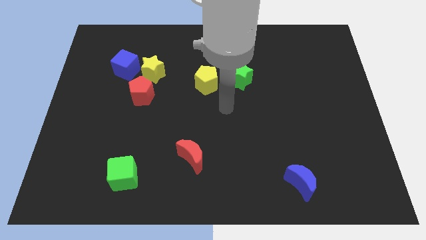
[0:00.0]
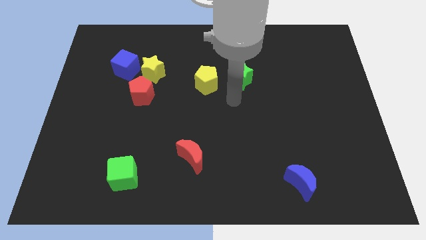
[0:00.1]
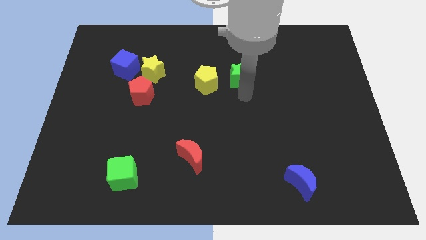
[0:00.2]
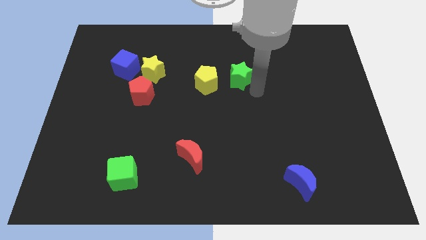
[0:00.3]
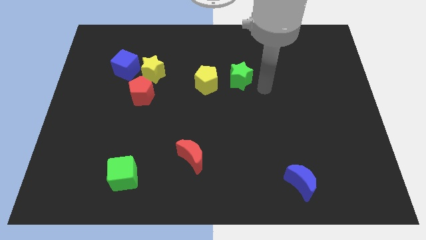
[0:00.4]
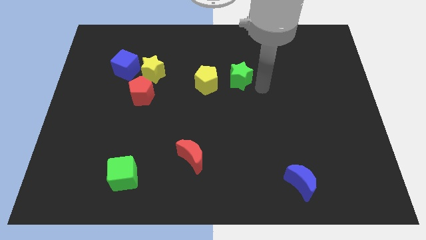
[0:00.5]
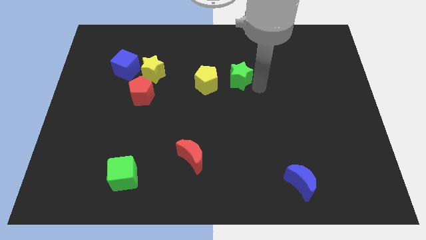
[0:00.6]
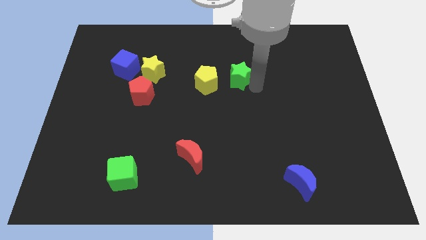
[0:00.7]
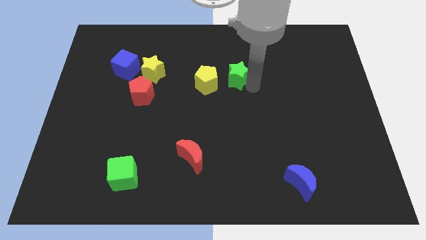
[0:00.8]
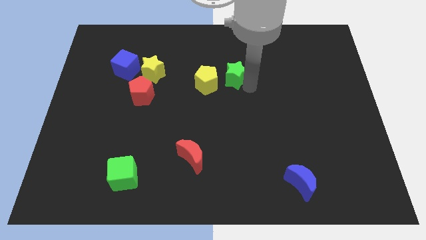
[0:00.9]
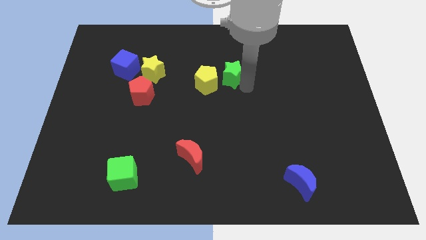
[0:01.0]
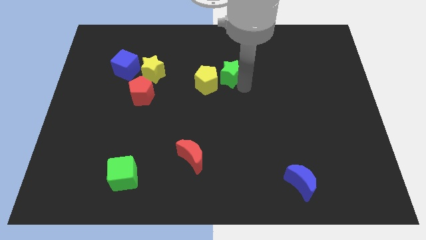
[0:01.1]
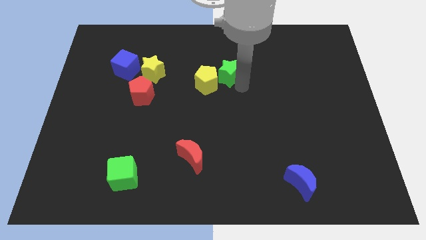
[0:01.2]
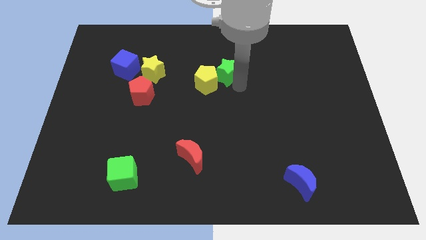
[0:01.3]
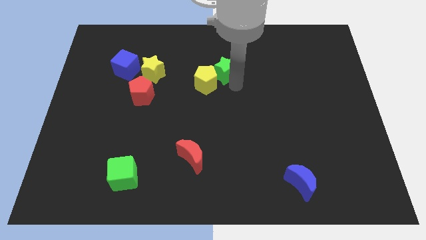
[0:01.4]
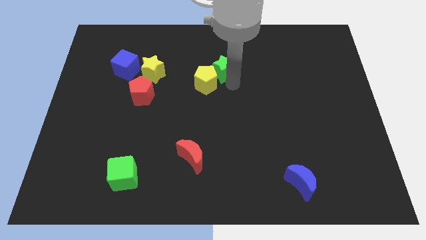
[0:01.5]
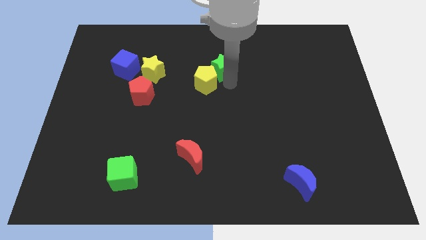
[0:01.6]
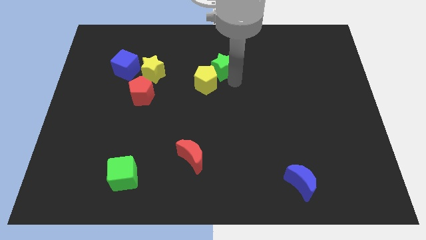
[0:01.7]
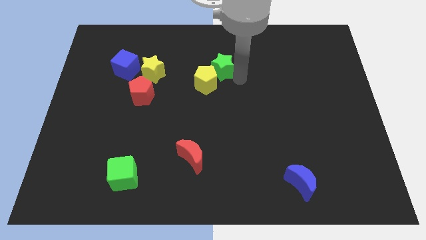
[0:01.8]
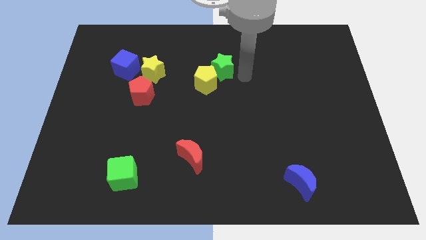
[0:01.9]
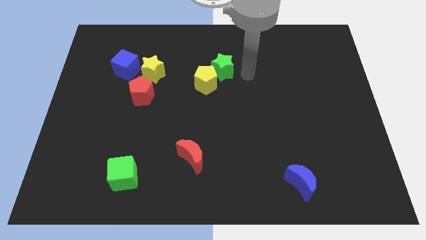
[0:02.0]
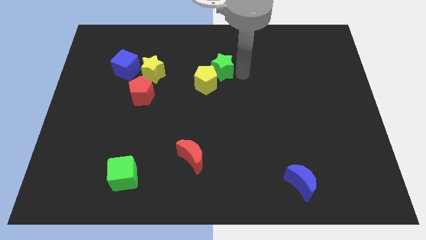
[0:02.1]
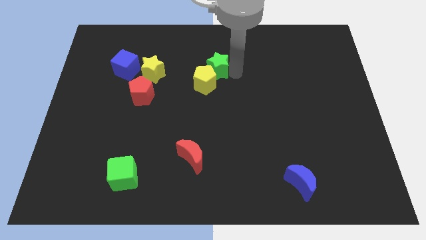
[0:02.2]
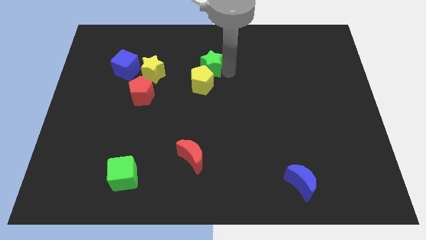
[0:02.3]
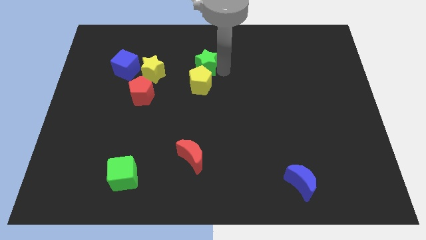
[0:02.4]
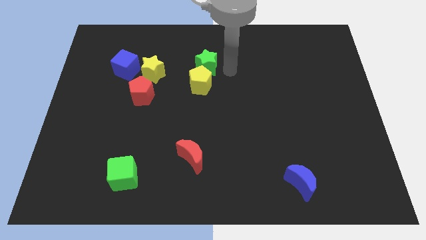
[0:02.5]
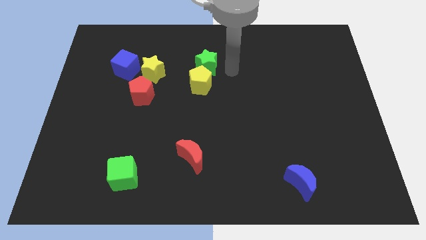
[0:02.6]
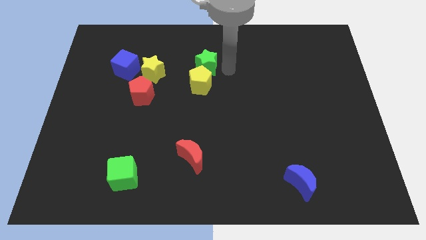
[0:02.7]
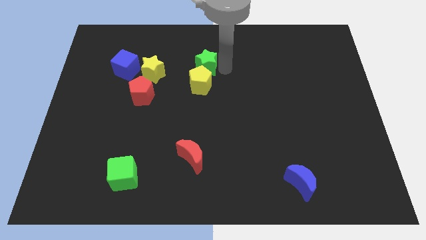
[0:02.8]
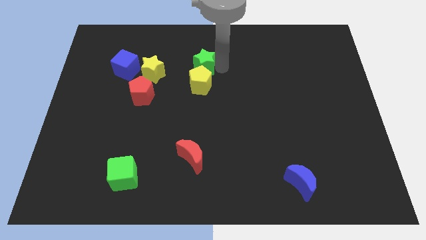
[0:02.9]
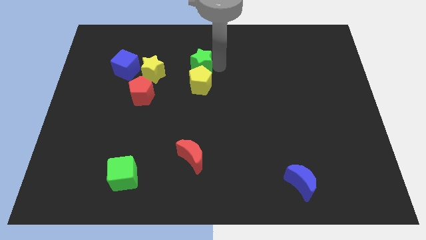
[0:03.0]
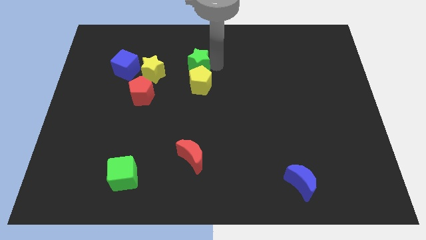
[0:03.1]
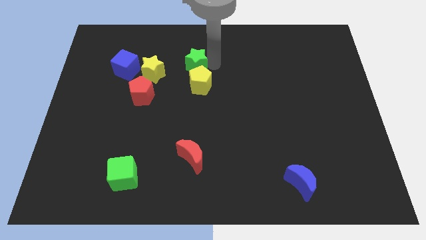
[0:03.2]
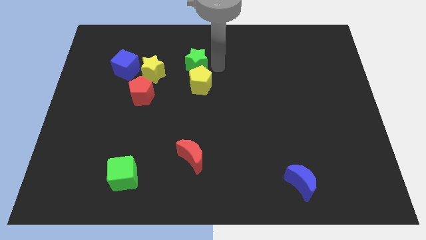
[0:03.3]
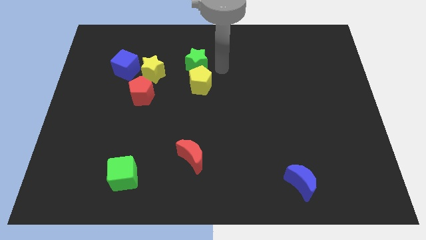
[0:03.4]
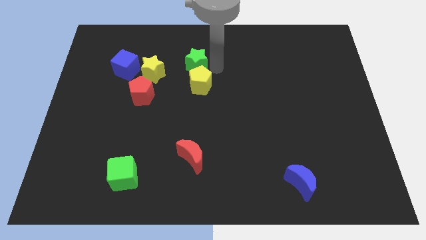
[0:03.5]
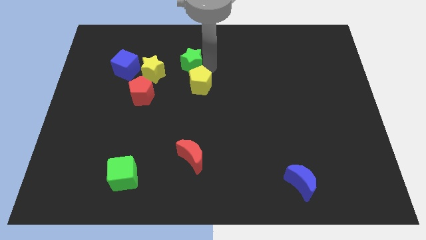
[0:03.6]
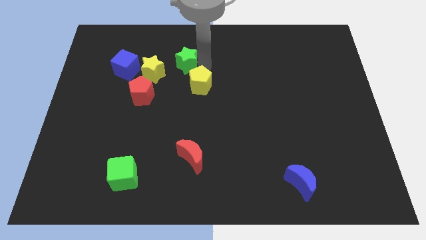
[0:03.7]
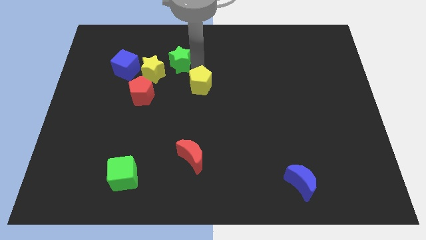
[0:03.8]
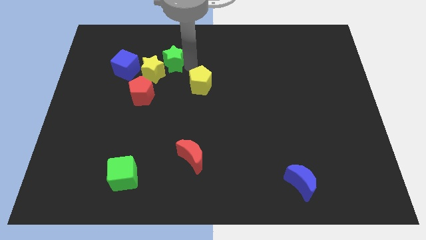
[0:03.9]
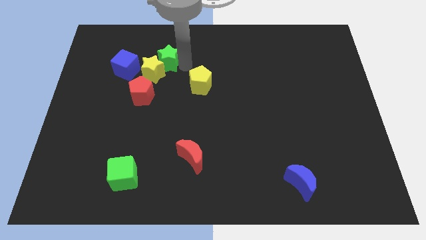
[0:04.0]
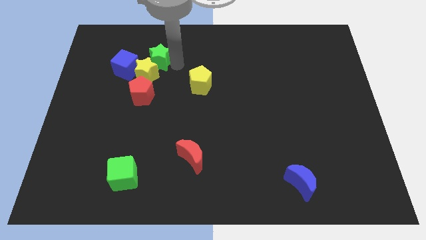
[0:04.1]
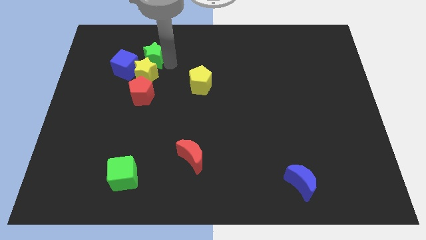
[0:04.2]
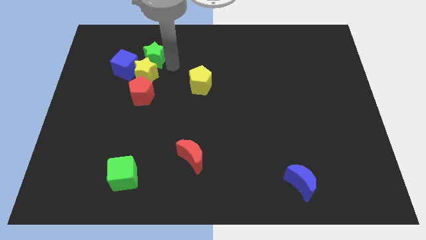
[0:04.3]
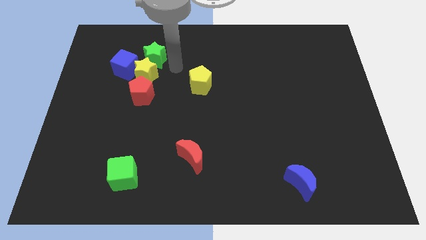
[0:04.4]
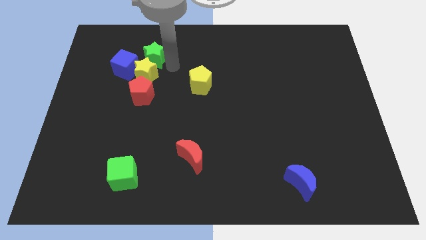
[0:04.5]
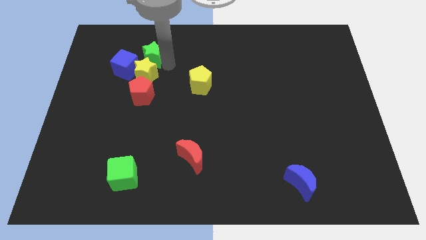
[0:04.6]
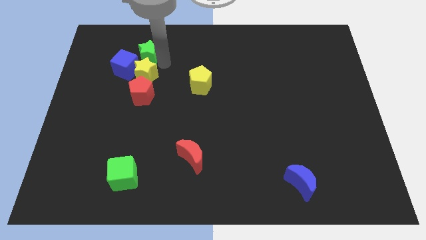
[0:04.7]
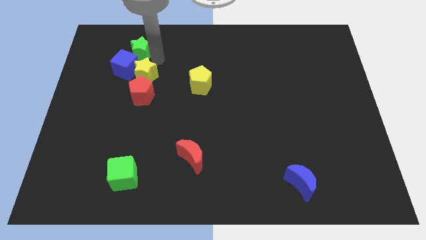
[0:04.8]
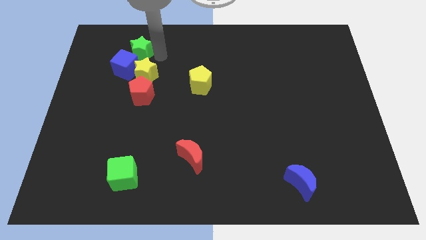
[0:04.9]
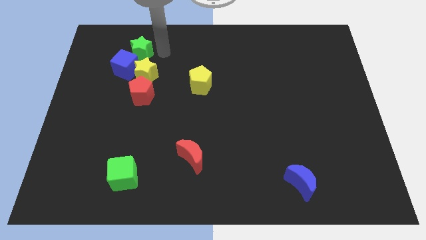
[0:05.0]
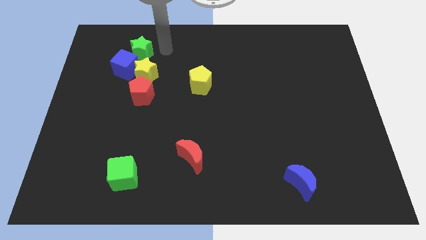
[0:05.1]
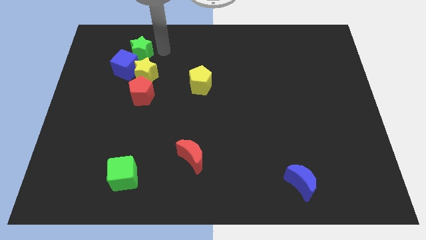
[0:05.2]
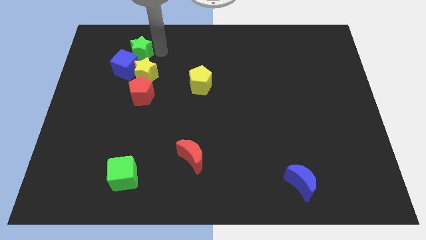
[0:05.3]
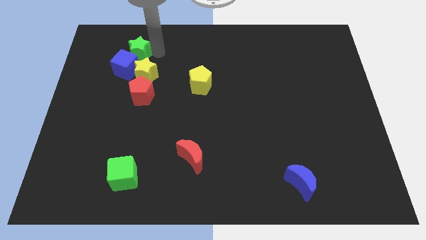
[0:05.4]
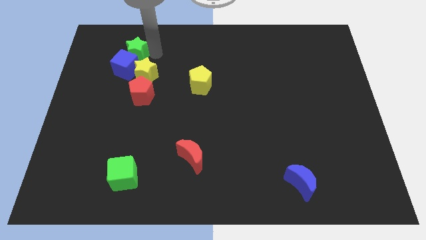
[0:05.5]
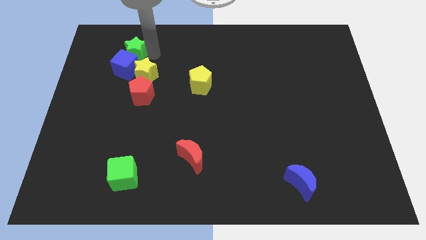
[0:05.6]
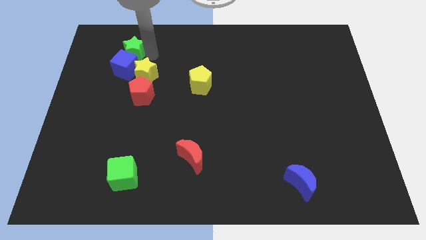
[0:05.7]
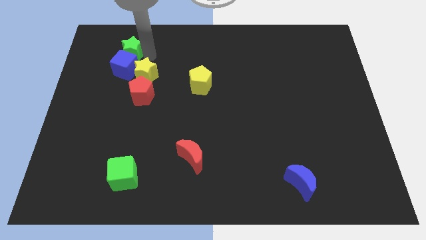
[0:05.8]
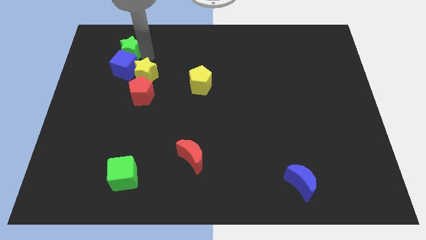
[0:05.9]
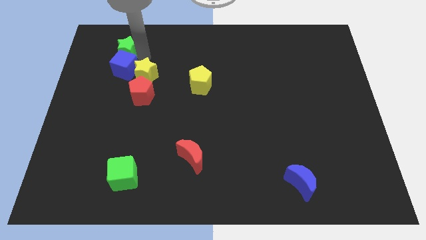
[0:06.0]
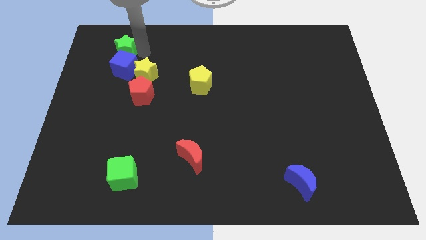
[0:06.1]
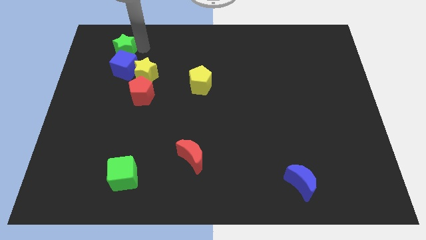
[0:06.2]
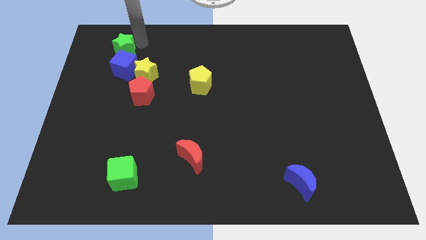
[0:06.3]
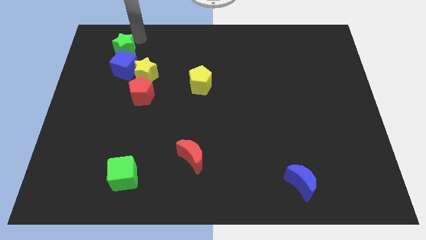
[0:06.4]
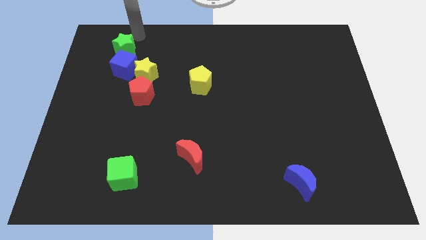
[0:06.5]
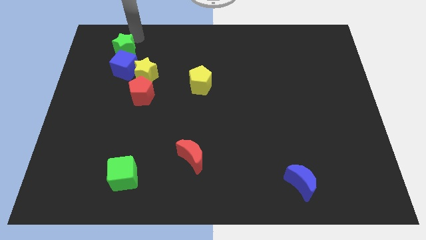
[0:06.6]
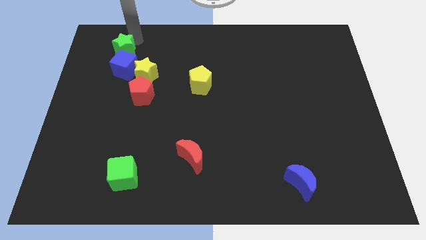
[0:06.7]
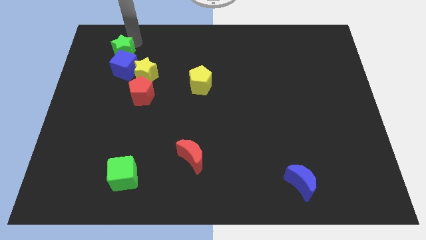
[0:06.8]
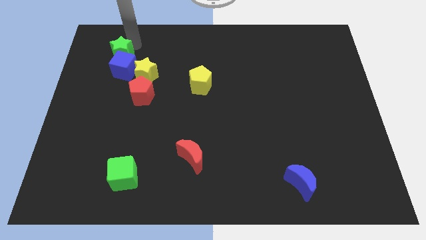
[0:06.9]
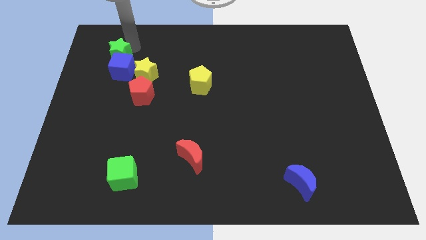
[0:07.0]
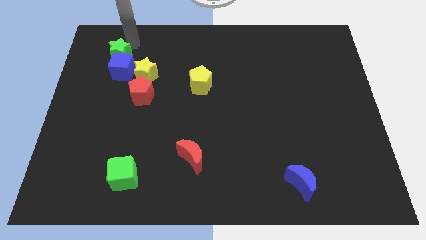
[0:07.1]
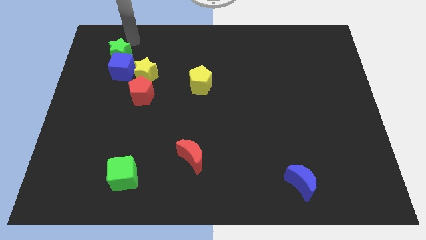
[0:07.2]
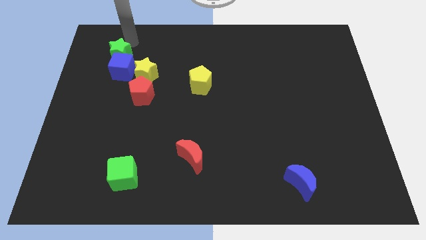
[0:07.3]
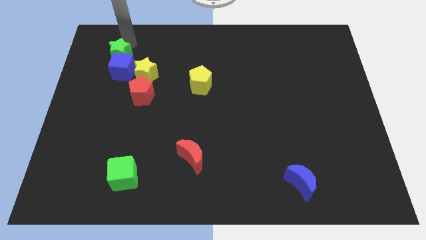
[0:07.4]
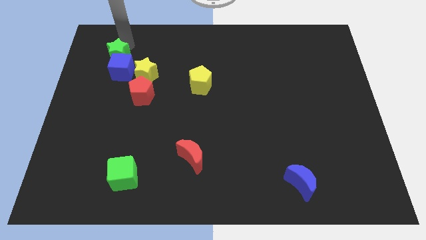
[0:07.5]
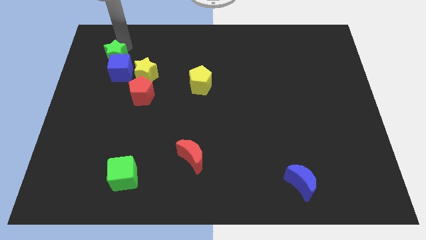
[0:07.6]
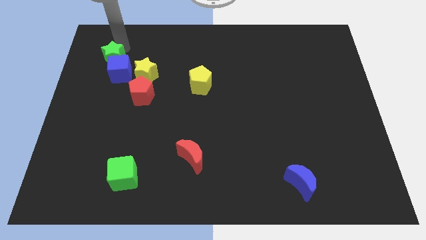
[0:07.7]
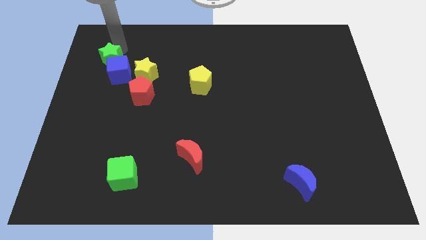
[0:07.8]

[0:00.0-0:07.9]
move the green star to the left side of the yellow star
